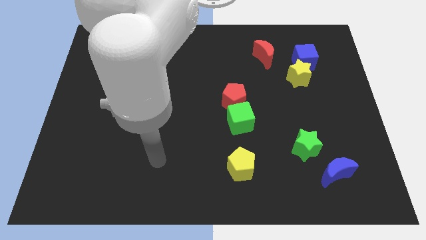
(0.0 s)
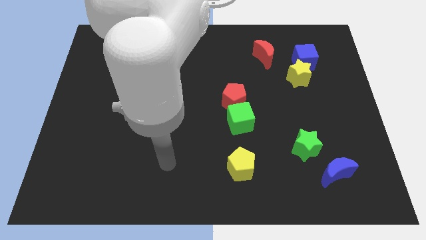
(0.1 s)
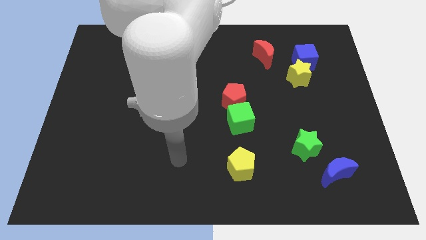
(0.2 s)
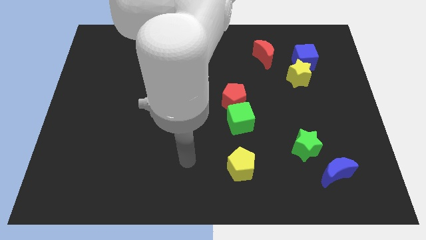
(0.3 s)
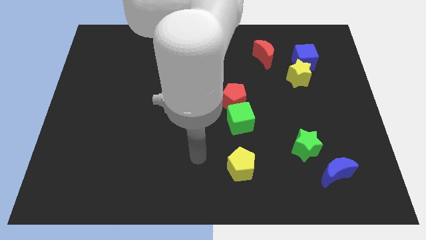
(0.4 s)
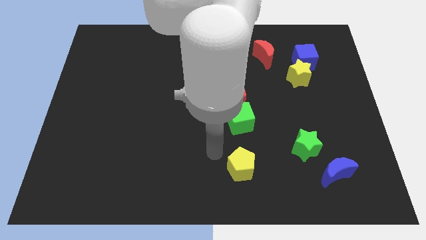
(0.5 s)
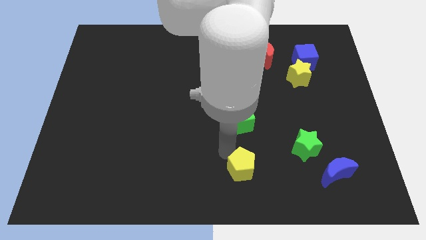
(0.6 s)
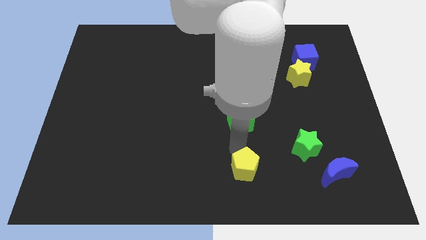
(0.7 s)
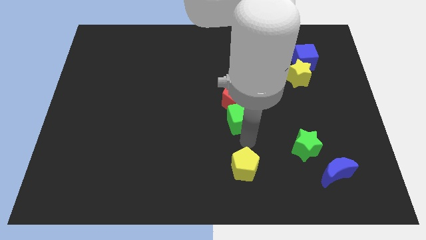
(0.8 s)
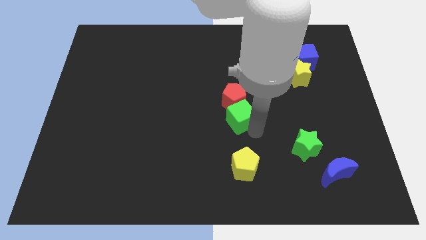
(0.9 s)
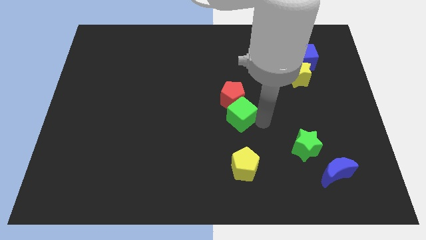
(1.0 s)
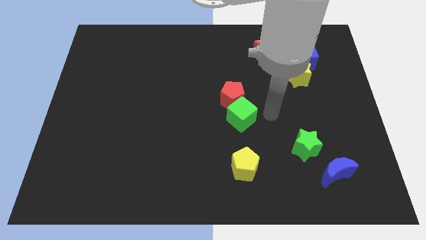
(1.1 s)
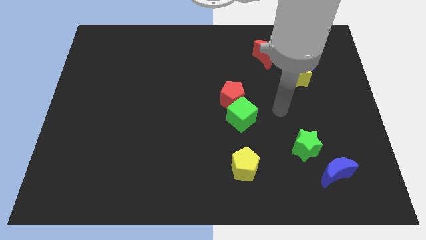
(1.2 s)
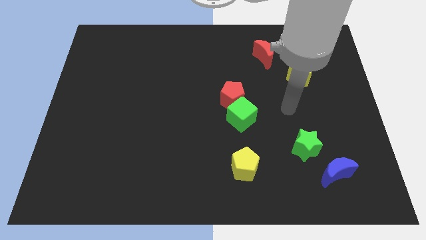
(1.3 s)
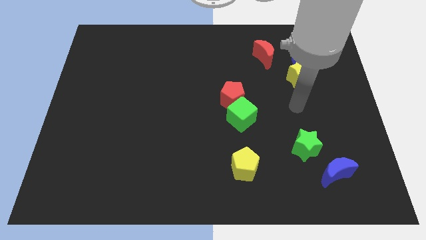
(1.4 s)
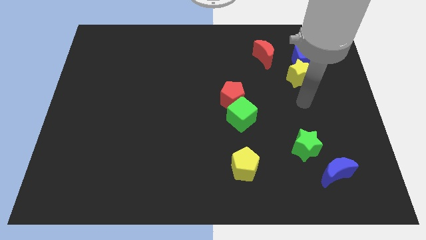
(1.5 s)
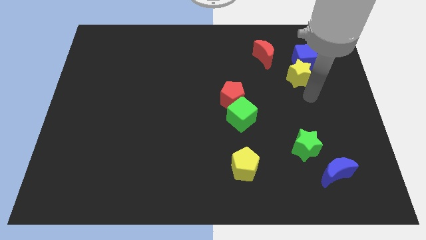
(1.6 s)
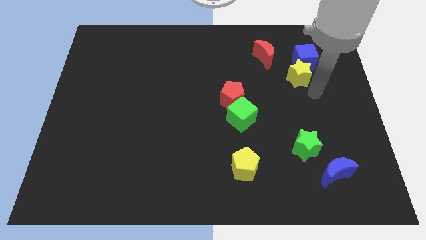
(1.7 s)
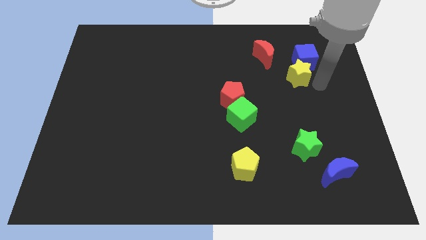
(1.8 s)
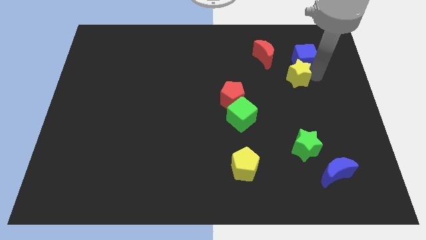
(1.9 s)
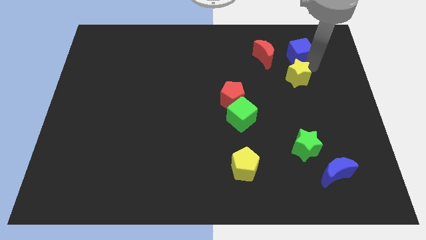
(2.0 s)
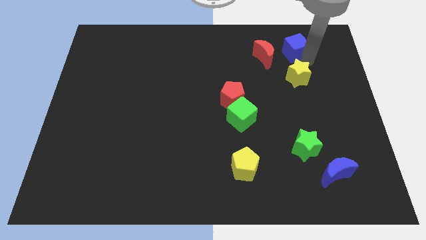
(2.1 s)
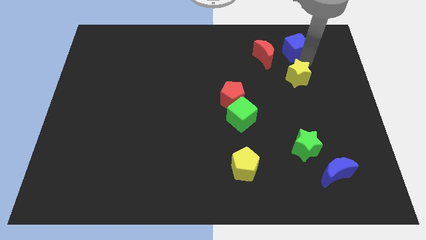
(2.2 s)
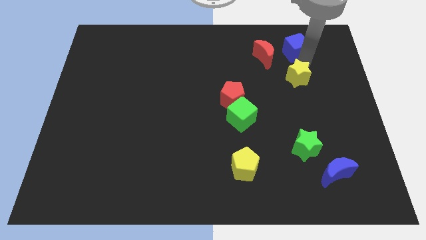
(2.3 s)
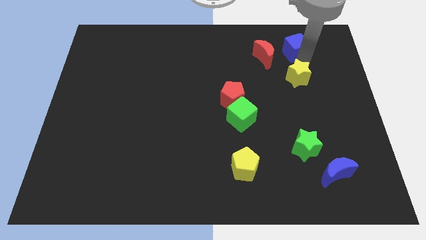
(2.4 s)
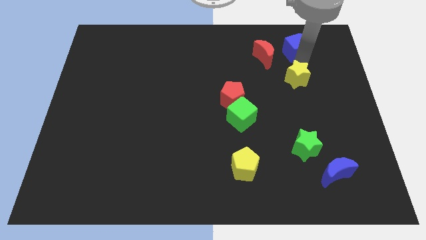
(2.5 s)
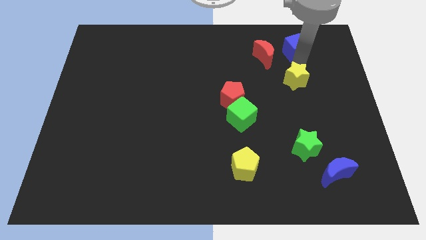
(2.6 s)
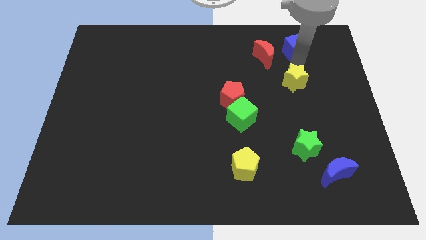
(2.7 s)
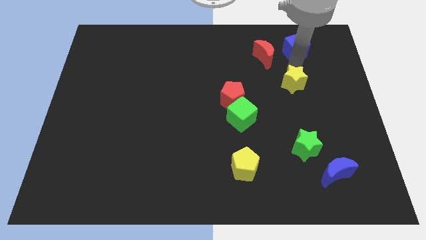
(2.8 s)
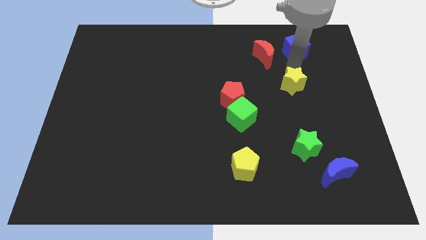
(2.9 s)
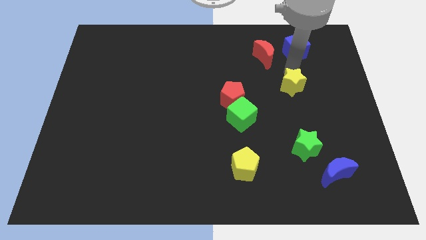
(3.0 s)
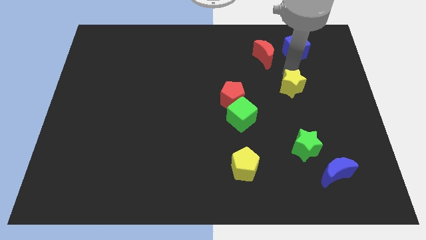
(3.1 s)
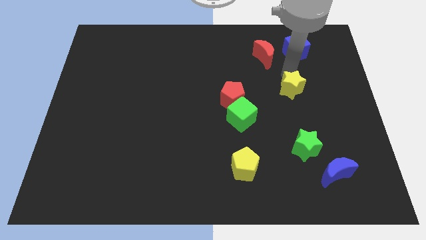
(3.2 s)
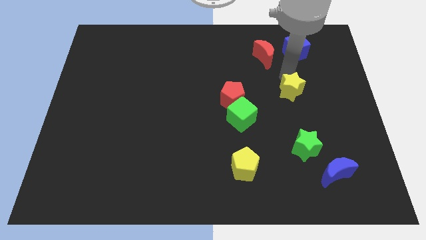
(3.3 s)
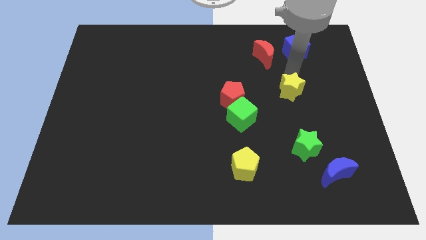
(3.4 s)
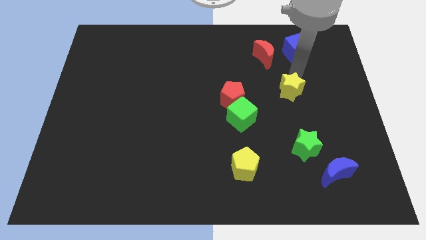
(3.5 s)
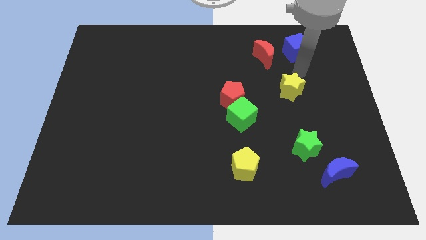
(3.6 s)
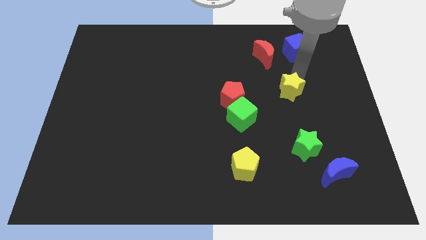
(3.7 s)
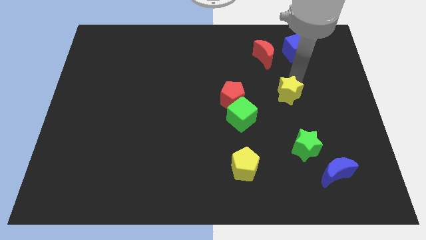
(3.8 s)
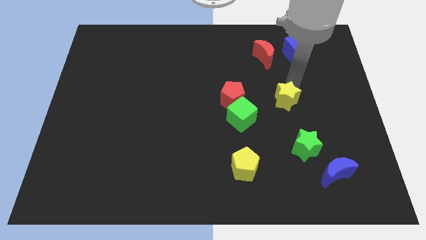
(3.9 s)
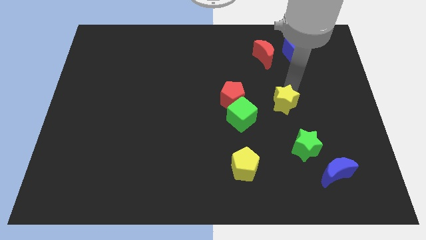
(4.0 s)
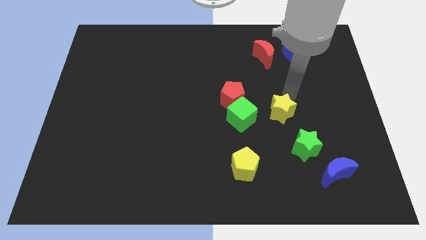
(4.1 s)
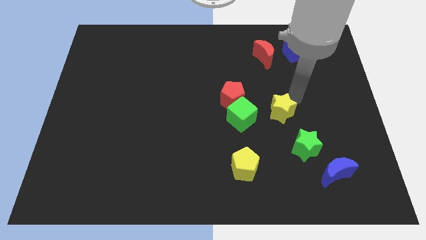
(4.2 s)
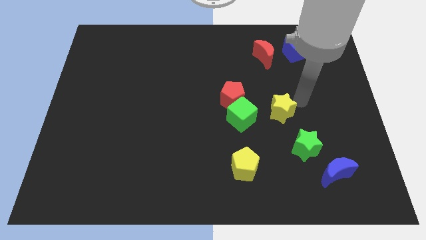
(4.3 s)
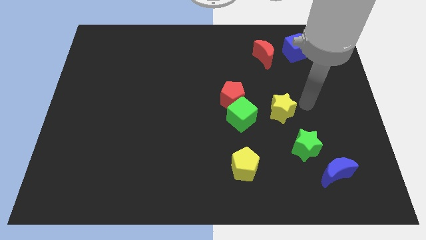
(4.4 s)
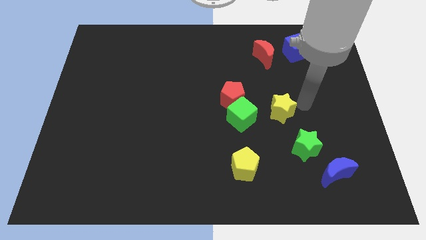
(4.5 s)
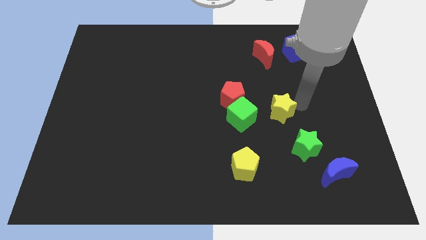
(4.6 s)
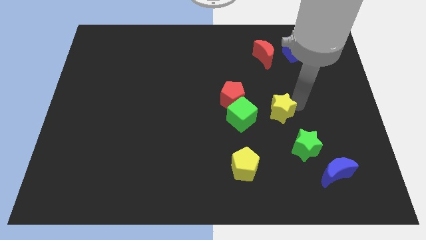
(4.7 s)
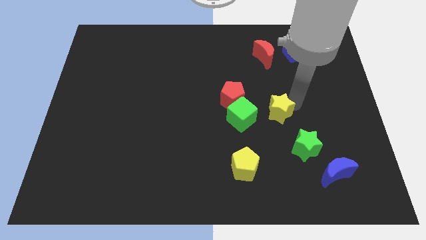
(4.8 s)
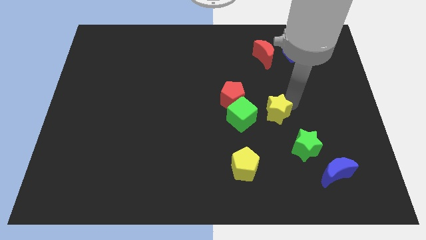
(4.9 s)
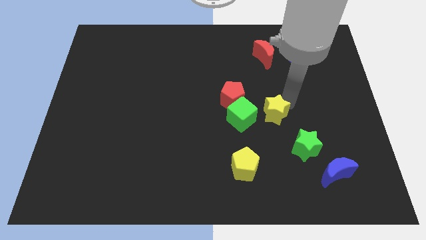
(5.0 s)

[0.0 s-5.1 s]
move the yellow star to the bottom right side of the red pentagon

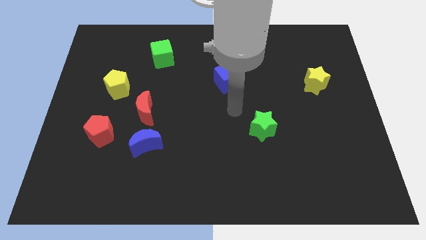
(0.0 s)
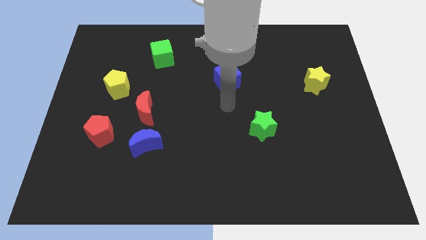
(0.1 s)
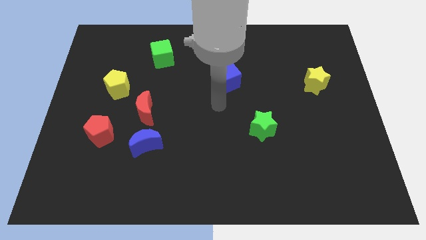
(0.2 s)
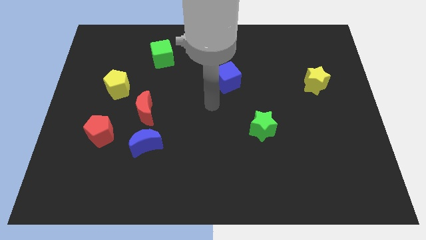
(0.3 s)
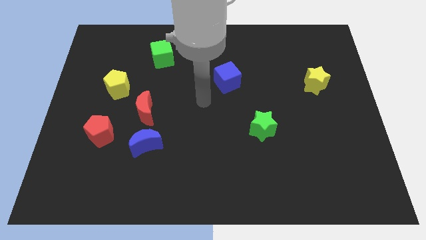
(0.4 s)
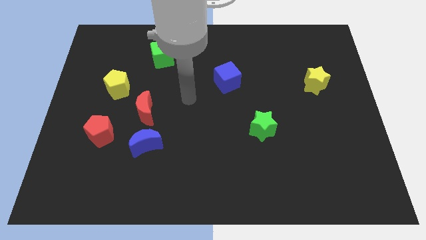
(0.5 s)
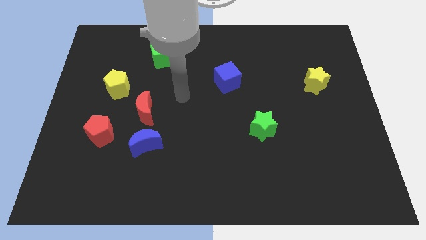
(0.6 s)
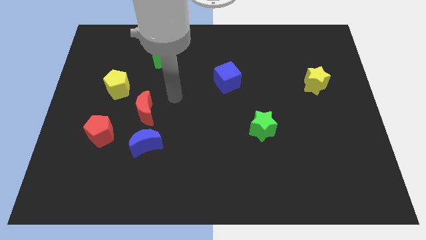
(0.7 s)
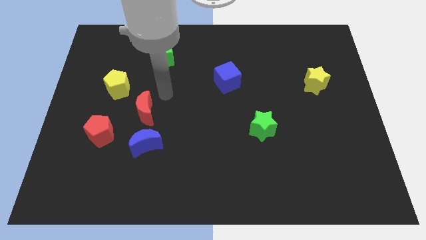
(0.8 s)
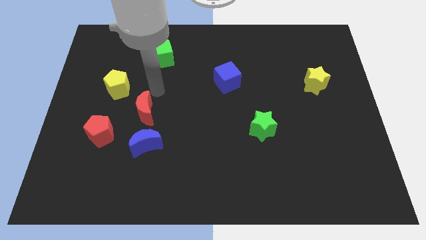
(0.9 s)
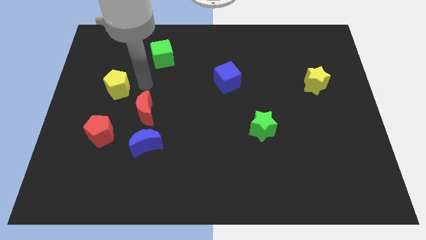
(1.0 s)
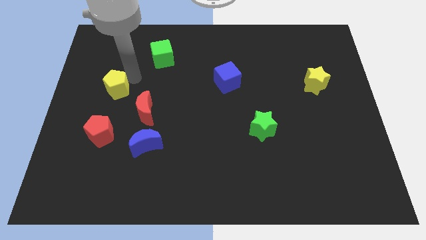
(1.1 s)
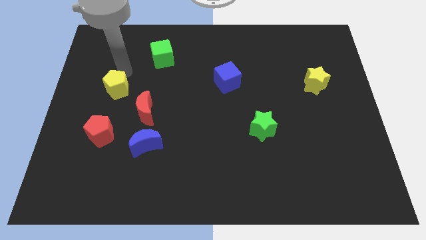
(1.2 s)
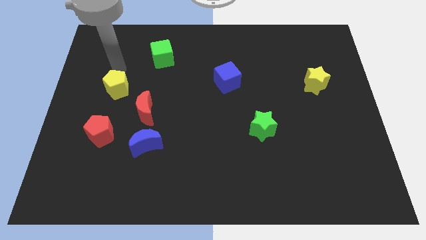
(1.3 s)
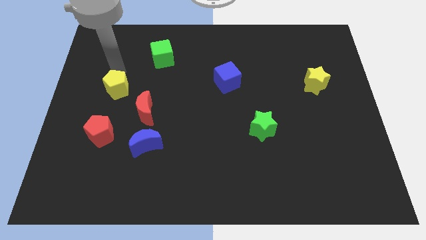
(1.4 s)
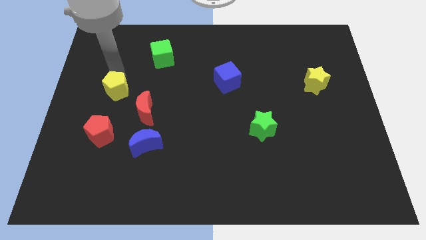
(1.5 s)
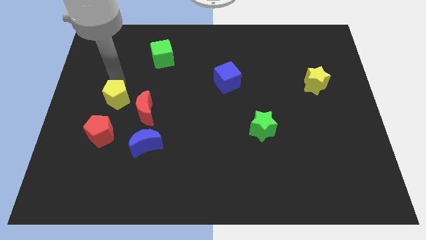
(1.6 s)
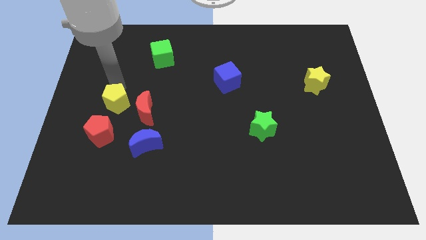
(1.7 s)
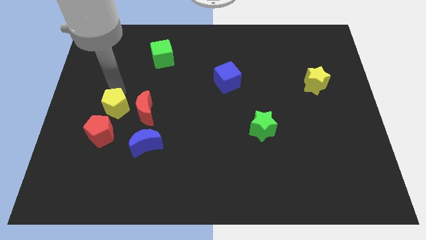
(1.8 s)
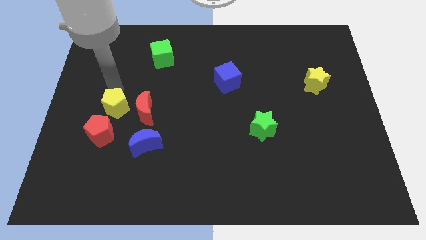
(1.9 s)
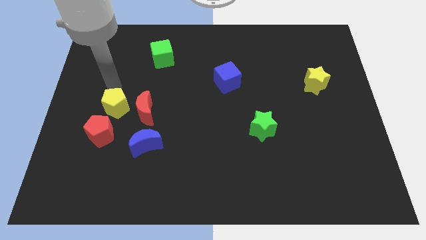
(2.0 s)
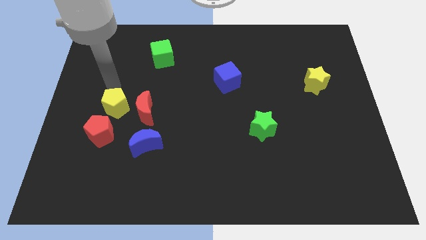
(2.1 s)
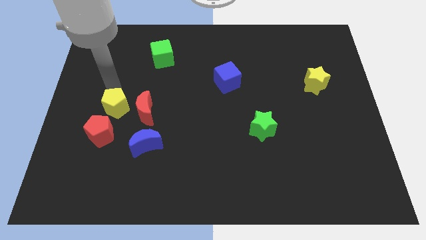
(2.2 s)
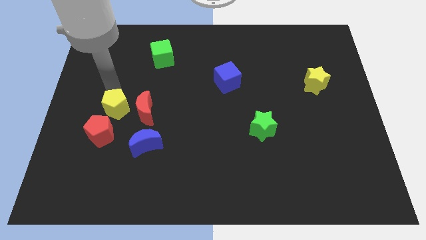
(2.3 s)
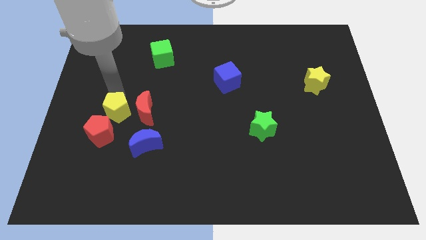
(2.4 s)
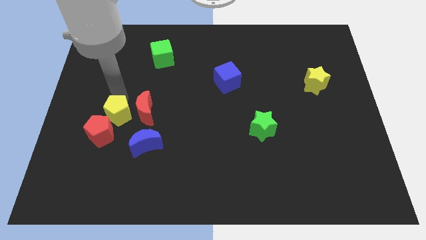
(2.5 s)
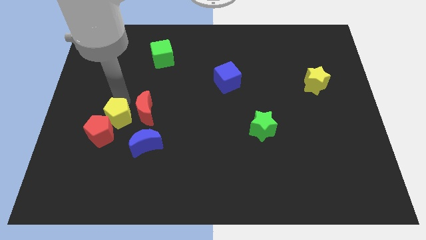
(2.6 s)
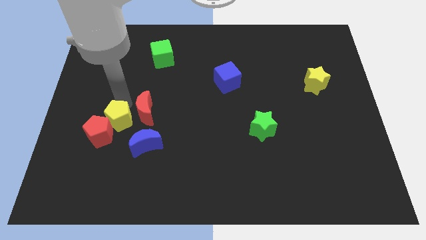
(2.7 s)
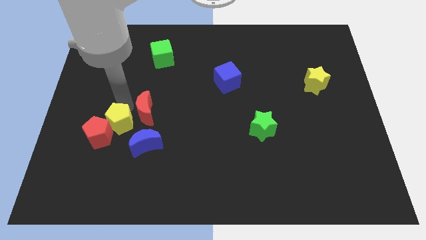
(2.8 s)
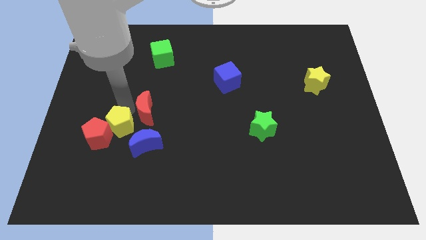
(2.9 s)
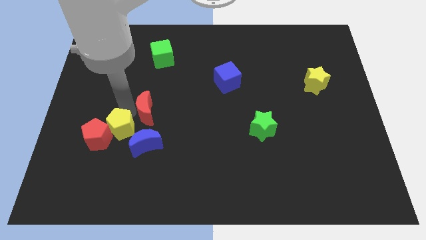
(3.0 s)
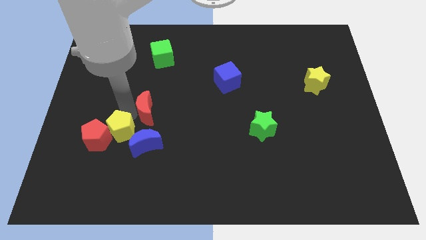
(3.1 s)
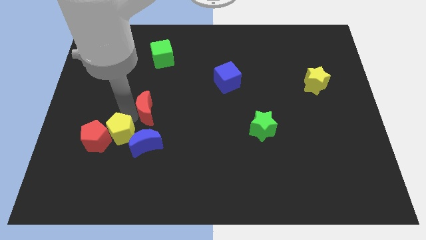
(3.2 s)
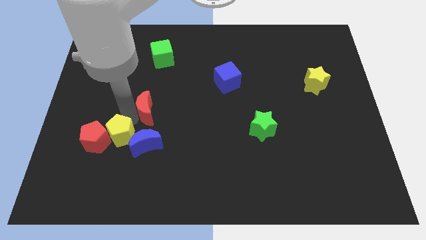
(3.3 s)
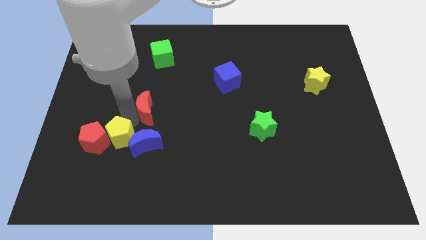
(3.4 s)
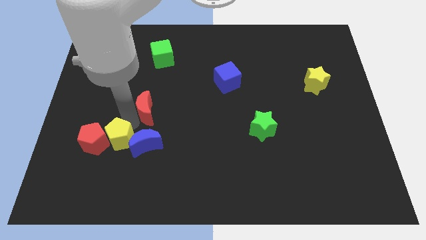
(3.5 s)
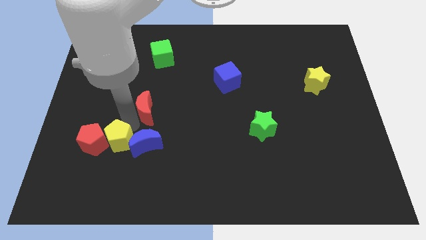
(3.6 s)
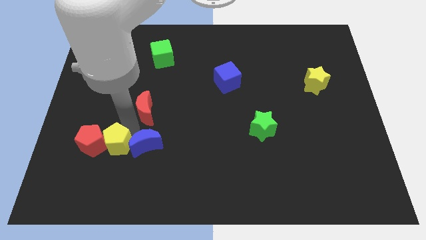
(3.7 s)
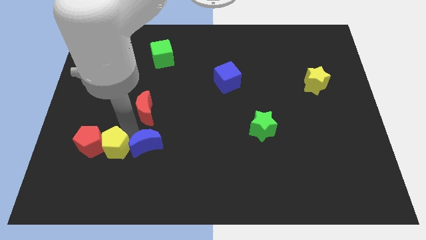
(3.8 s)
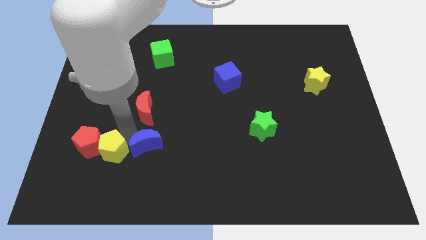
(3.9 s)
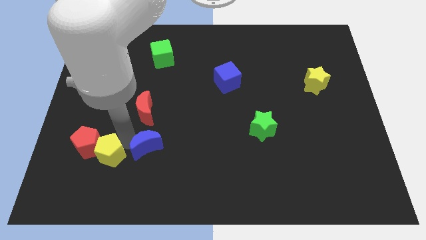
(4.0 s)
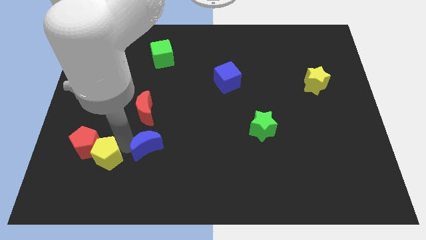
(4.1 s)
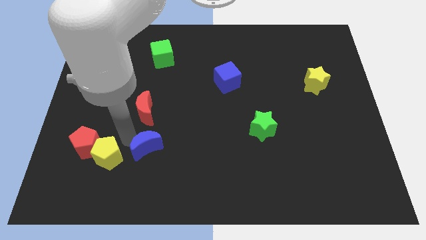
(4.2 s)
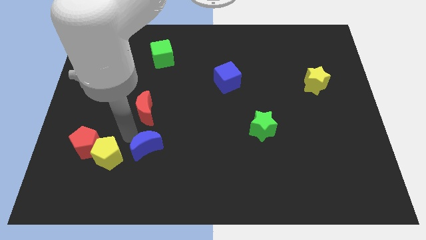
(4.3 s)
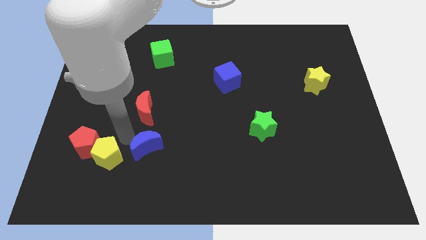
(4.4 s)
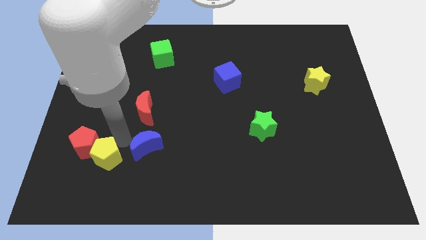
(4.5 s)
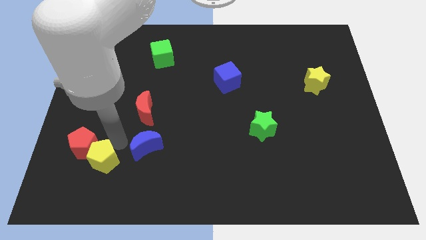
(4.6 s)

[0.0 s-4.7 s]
put the yellow pentagon below the red pentagon
